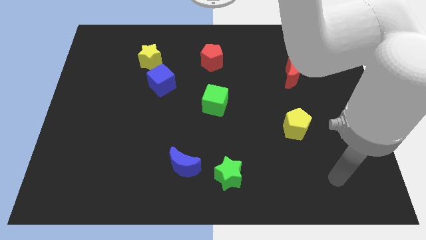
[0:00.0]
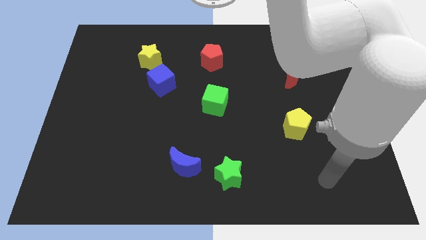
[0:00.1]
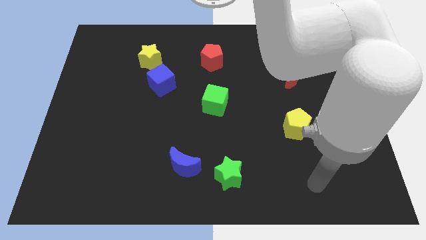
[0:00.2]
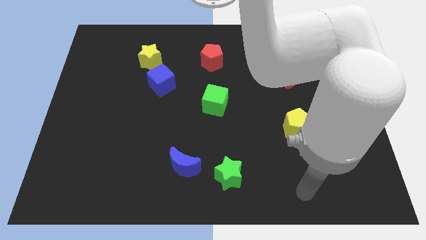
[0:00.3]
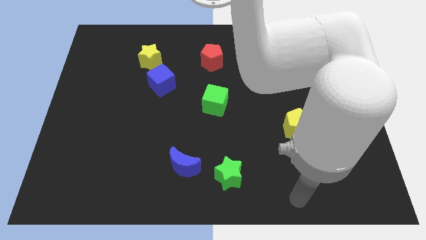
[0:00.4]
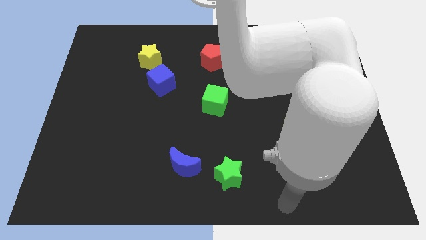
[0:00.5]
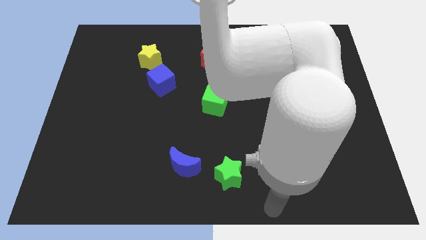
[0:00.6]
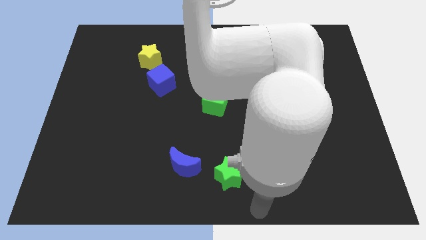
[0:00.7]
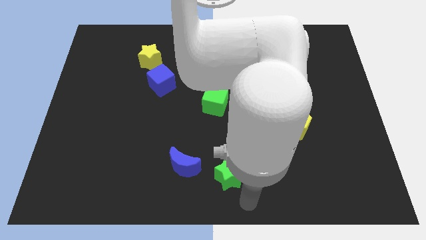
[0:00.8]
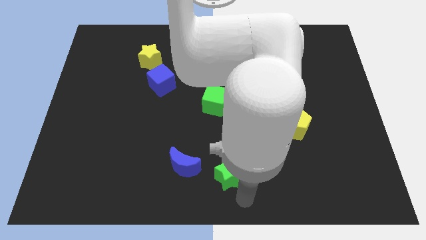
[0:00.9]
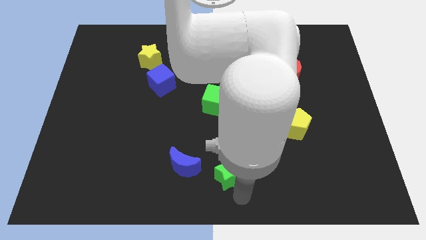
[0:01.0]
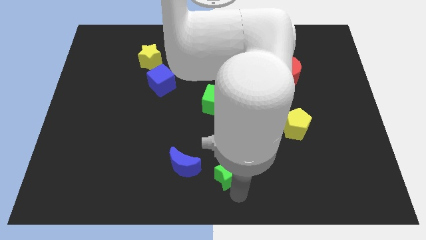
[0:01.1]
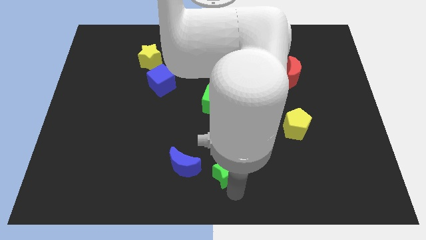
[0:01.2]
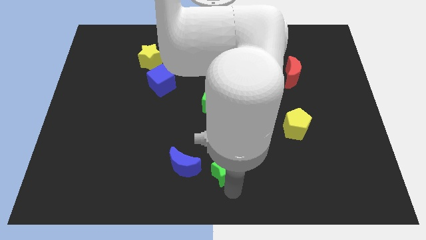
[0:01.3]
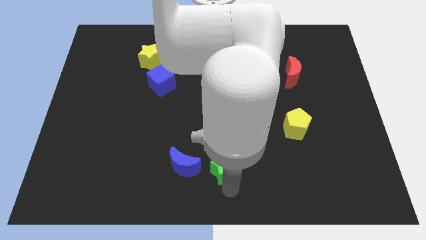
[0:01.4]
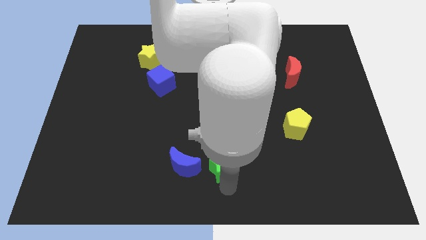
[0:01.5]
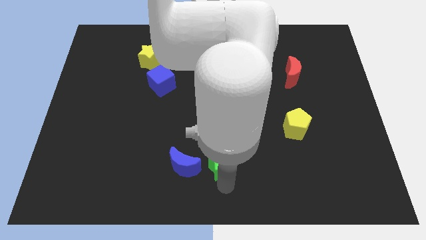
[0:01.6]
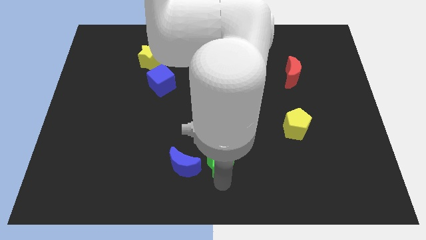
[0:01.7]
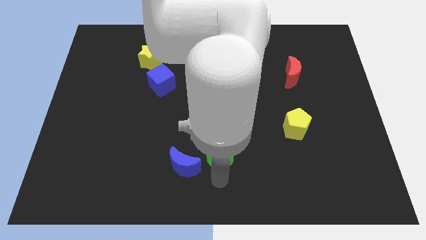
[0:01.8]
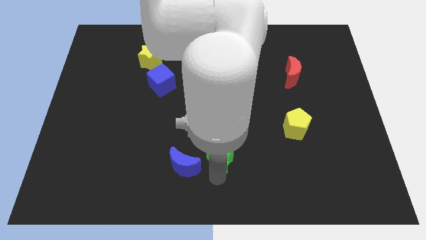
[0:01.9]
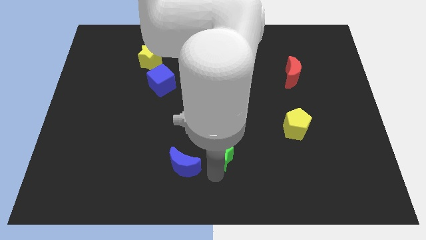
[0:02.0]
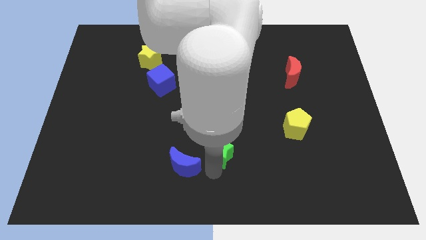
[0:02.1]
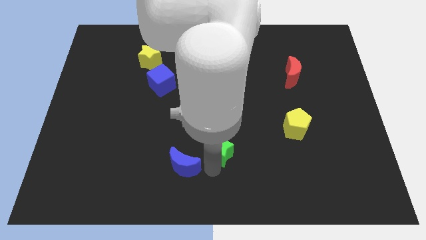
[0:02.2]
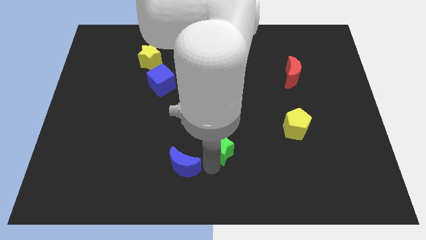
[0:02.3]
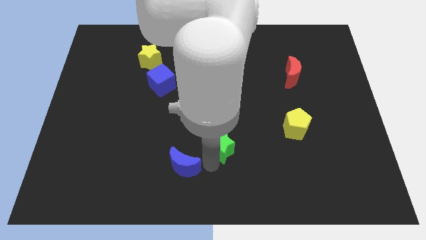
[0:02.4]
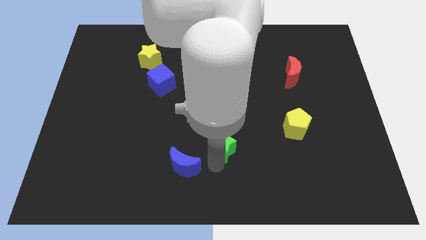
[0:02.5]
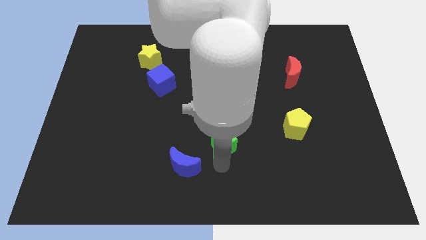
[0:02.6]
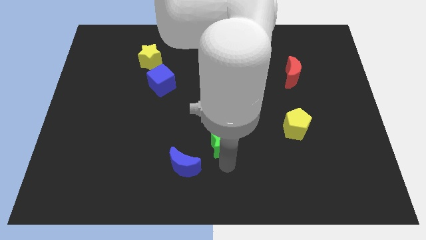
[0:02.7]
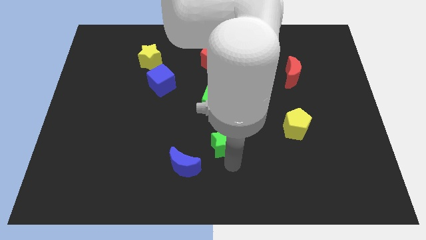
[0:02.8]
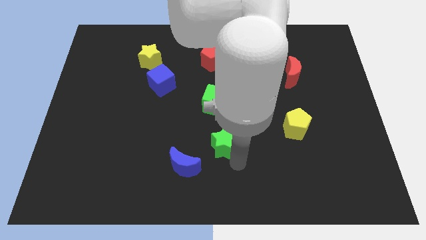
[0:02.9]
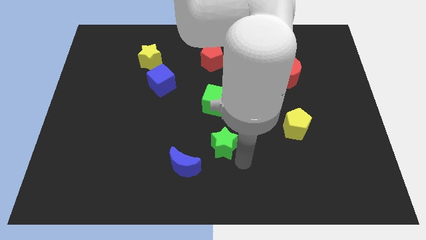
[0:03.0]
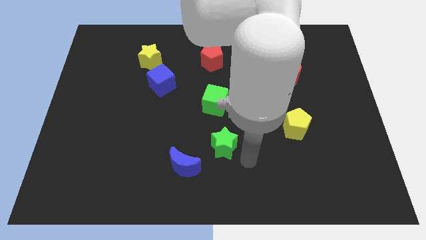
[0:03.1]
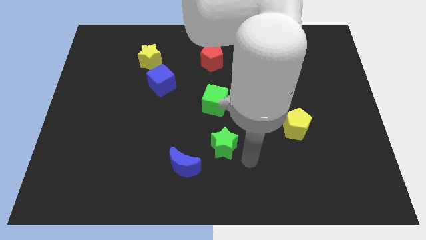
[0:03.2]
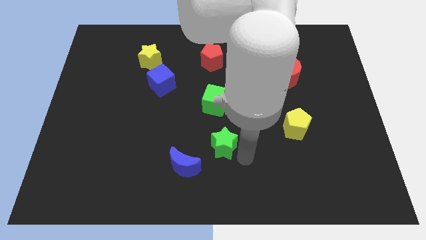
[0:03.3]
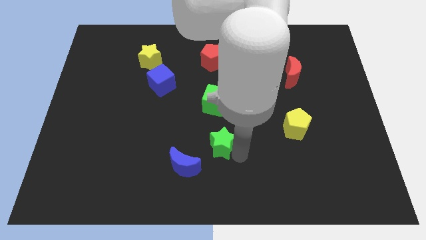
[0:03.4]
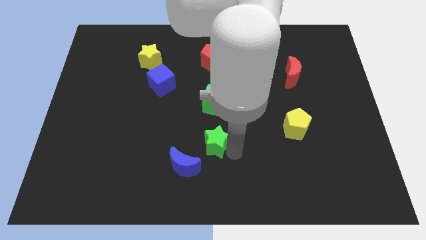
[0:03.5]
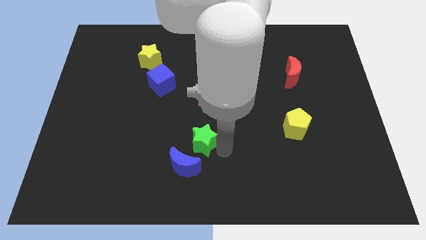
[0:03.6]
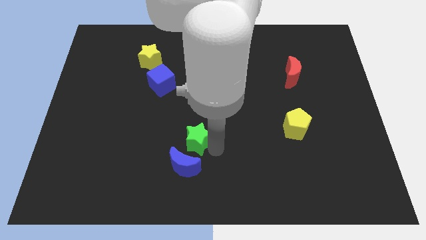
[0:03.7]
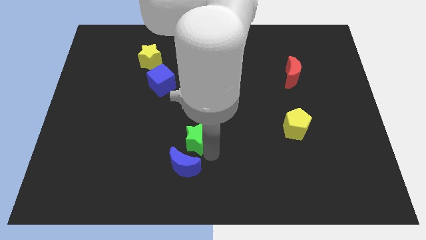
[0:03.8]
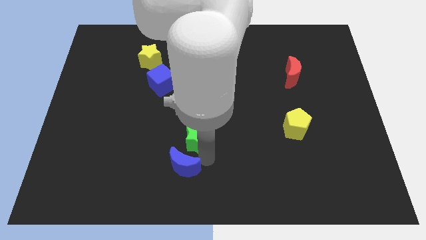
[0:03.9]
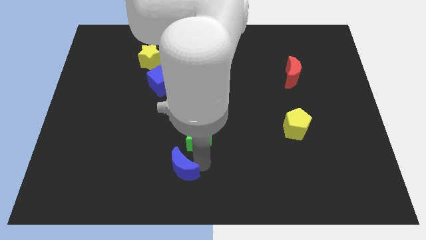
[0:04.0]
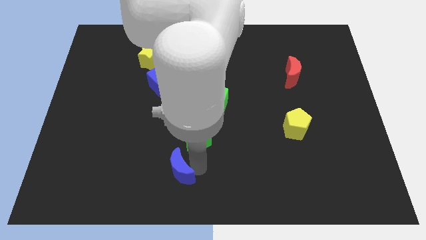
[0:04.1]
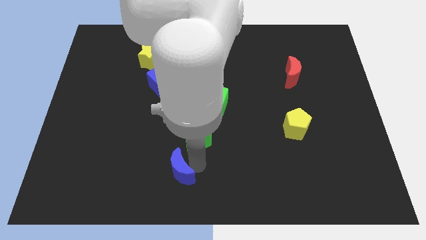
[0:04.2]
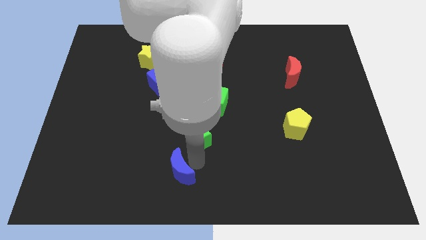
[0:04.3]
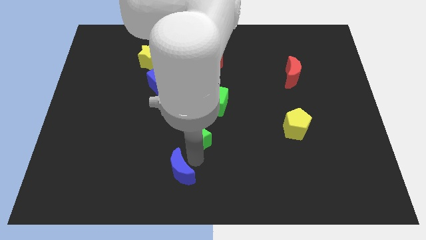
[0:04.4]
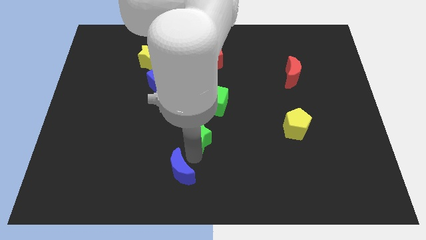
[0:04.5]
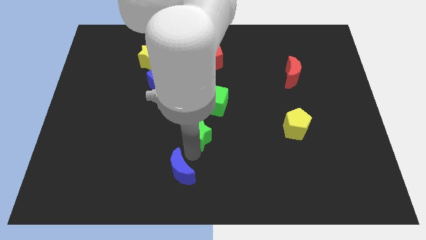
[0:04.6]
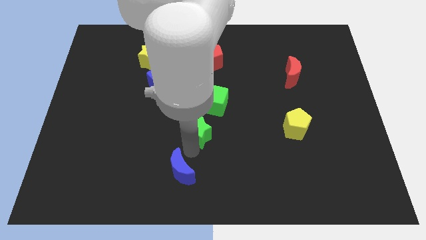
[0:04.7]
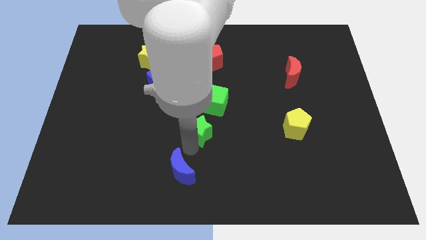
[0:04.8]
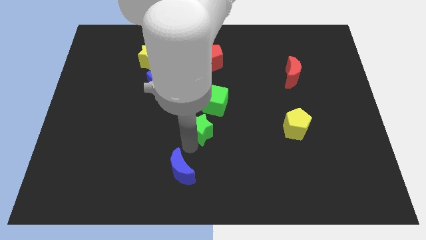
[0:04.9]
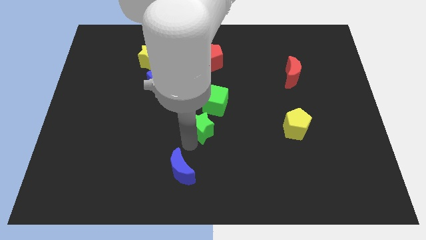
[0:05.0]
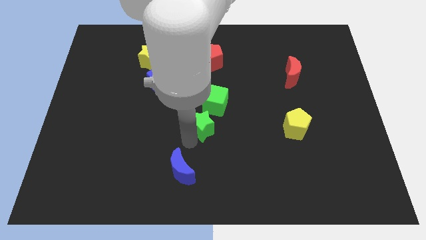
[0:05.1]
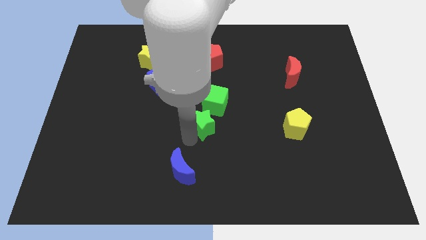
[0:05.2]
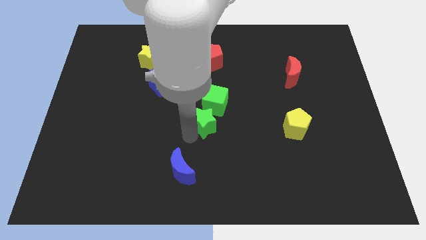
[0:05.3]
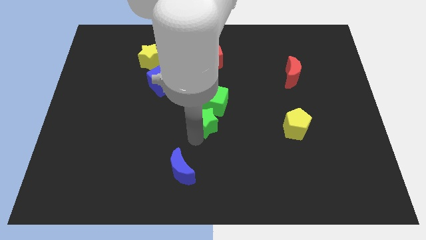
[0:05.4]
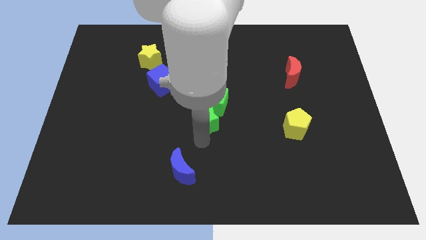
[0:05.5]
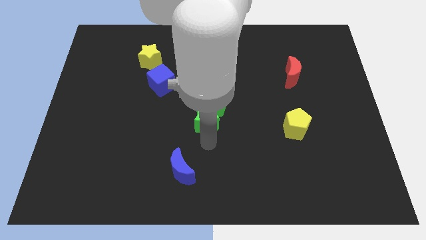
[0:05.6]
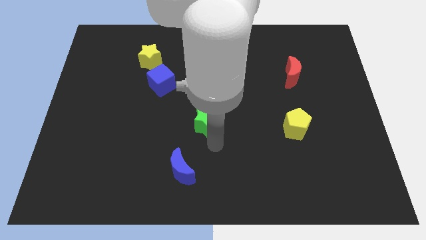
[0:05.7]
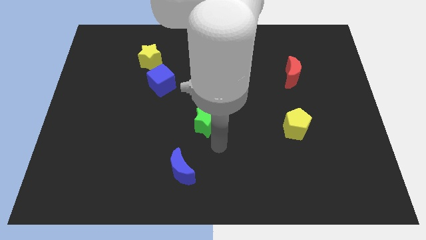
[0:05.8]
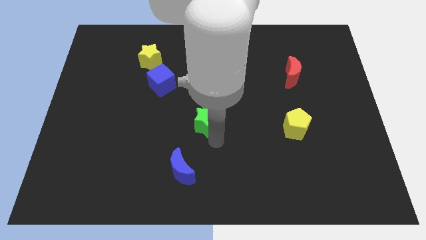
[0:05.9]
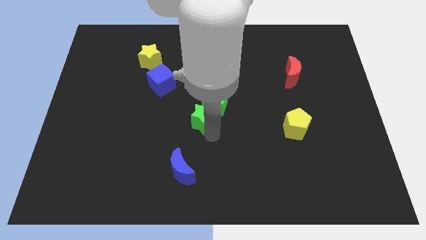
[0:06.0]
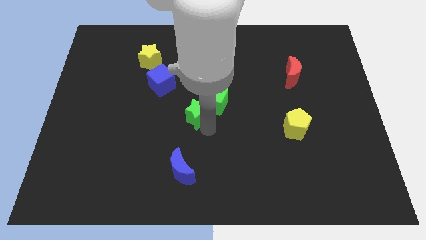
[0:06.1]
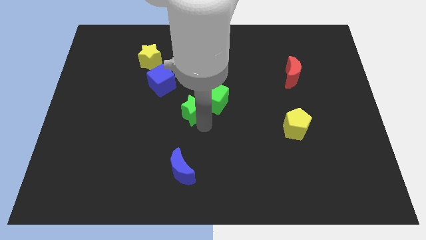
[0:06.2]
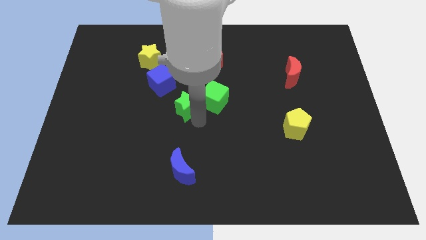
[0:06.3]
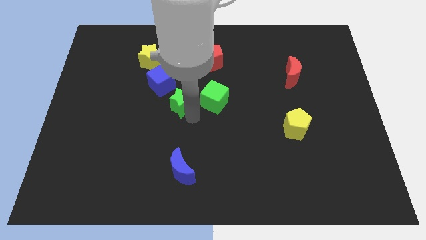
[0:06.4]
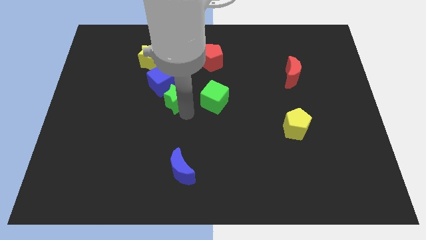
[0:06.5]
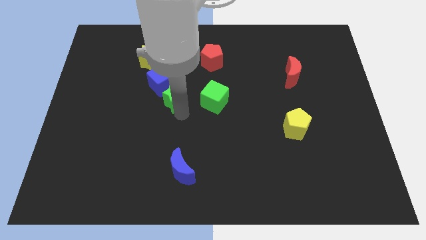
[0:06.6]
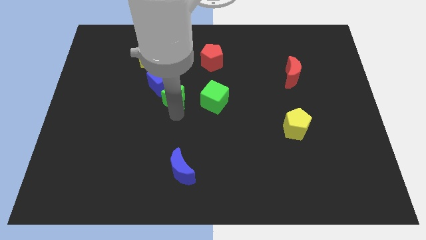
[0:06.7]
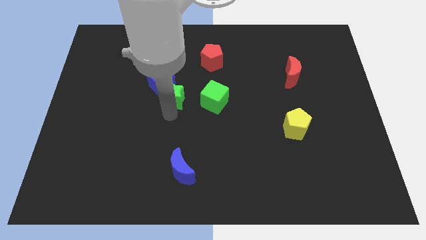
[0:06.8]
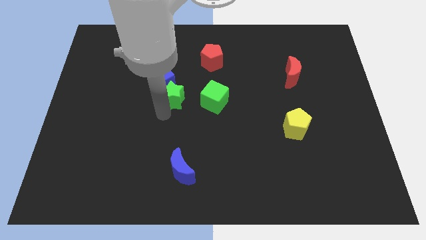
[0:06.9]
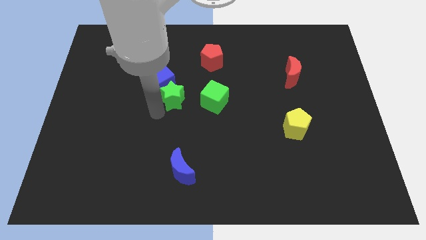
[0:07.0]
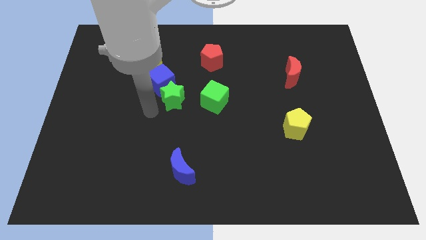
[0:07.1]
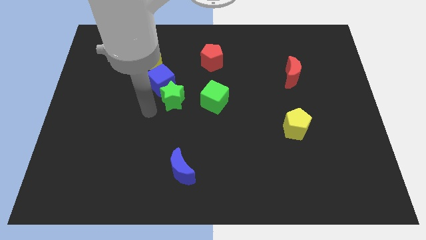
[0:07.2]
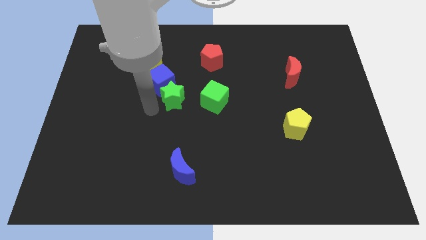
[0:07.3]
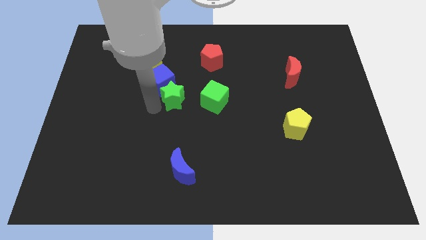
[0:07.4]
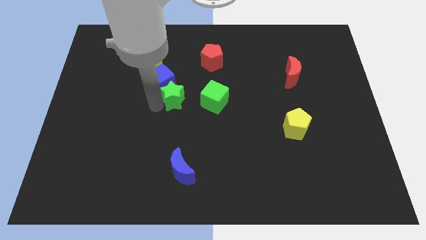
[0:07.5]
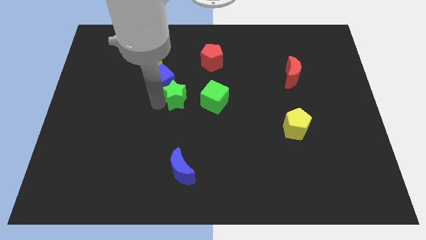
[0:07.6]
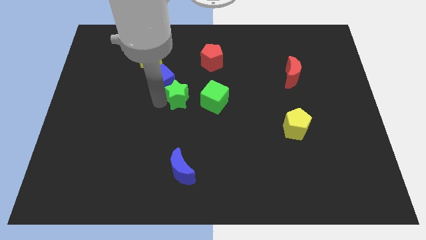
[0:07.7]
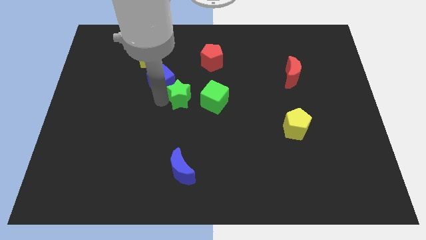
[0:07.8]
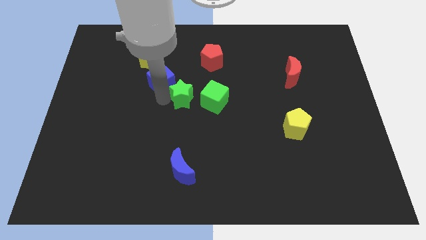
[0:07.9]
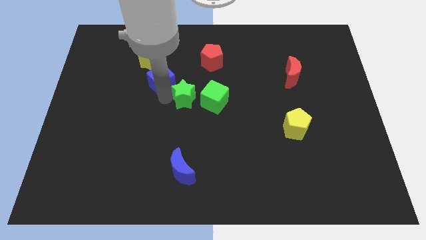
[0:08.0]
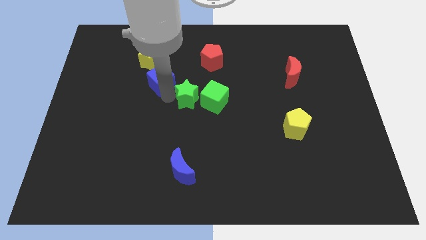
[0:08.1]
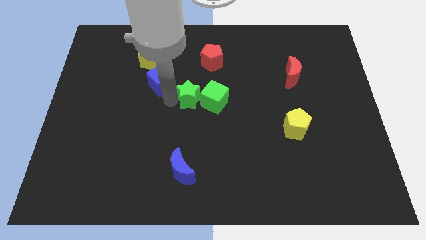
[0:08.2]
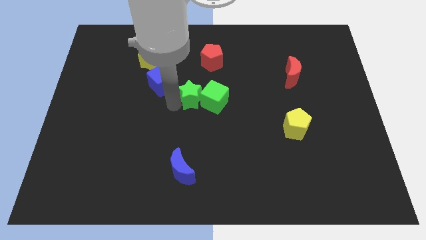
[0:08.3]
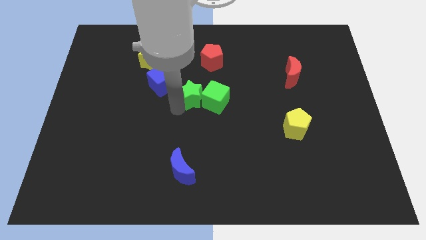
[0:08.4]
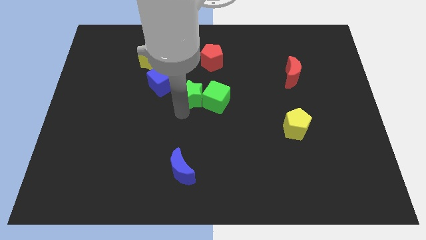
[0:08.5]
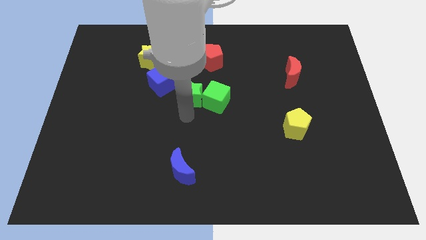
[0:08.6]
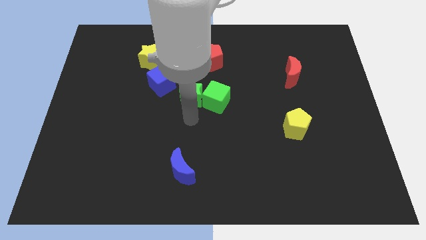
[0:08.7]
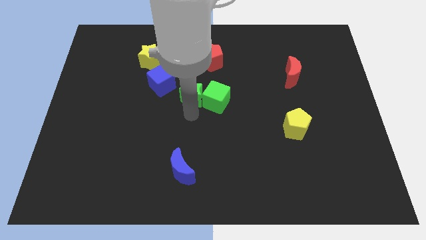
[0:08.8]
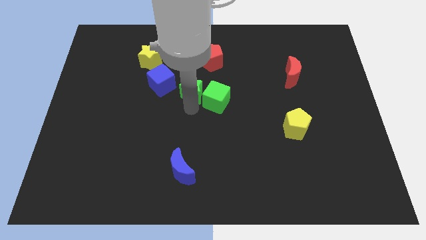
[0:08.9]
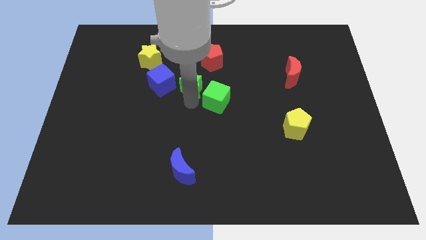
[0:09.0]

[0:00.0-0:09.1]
put the green star to the bottom left of the red pentagon
